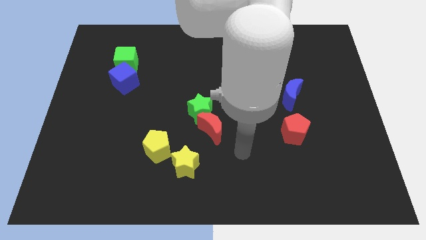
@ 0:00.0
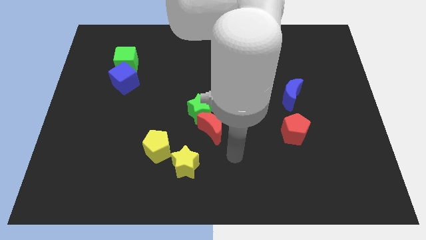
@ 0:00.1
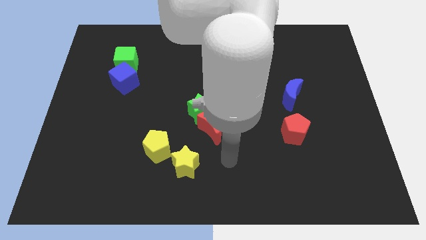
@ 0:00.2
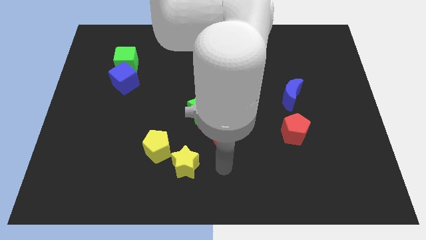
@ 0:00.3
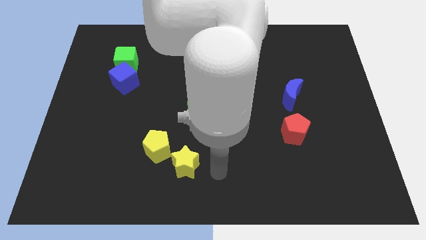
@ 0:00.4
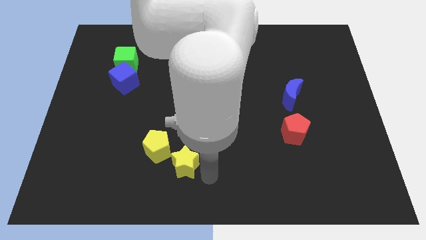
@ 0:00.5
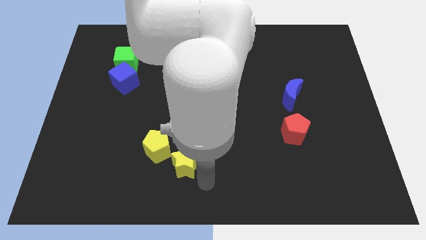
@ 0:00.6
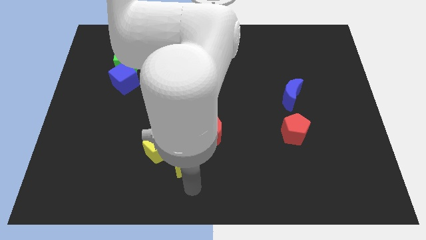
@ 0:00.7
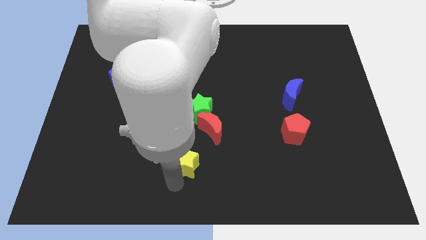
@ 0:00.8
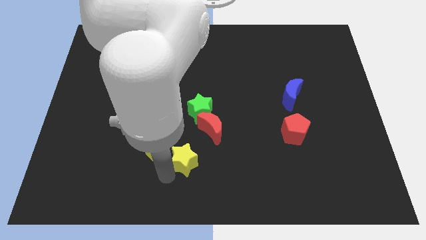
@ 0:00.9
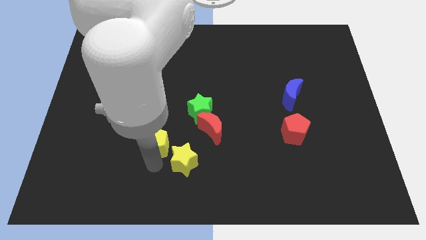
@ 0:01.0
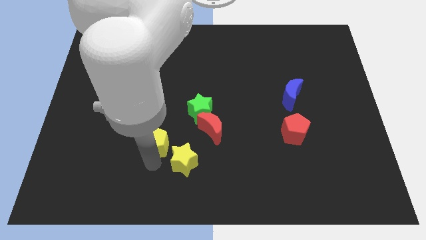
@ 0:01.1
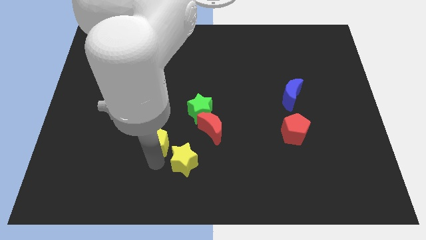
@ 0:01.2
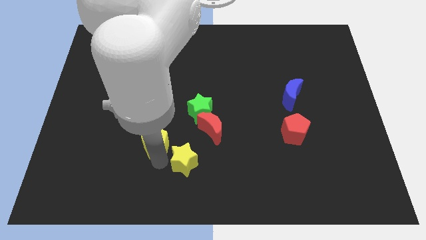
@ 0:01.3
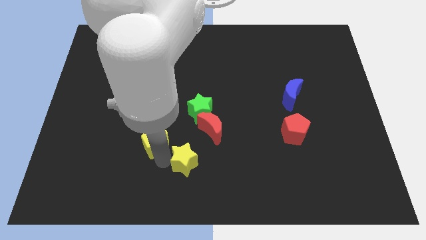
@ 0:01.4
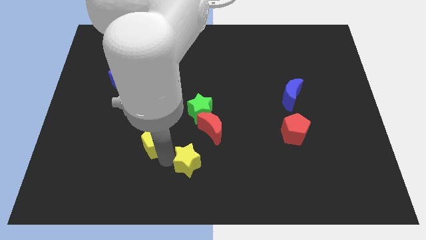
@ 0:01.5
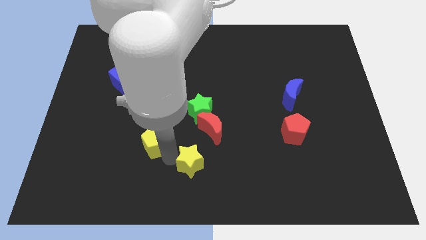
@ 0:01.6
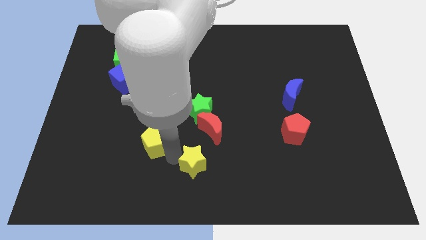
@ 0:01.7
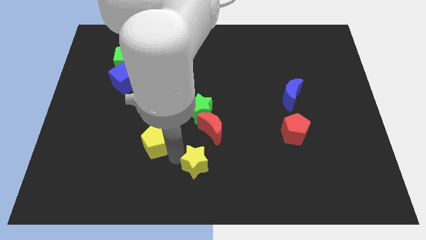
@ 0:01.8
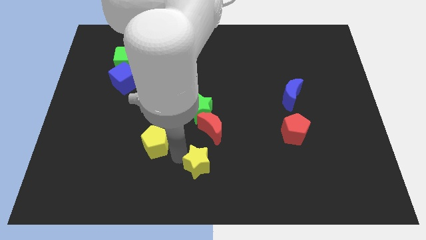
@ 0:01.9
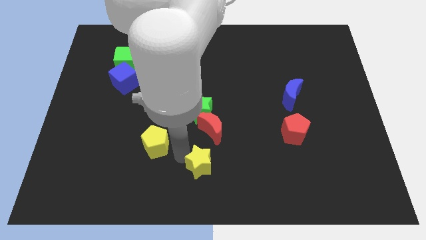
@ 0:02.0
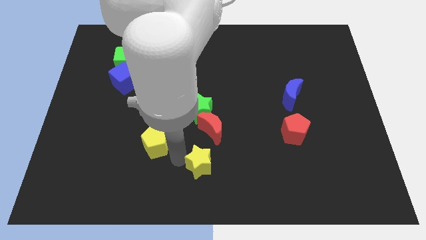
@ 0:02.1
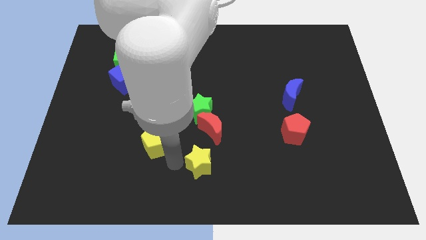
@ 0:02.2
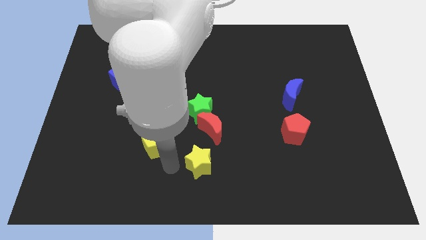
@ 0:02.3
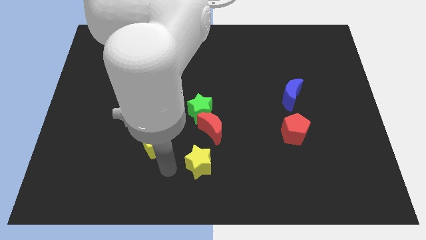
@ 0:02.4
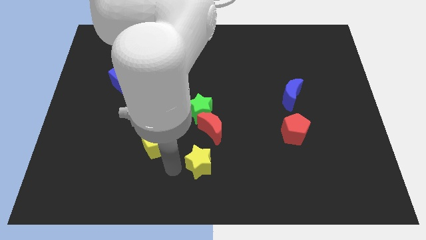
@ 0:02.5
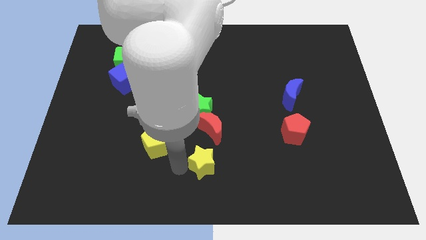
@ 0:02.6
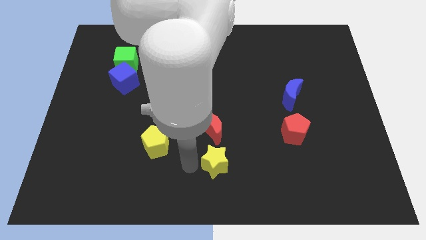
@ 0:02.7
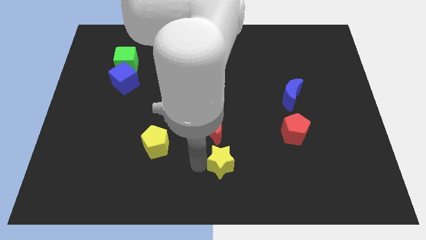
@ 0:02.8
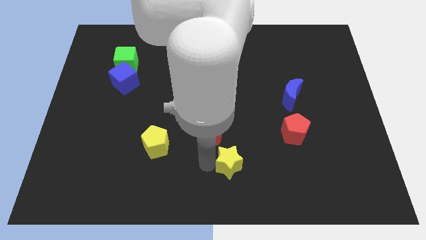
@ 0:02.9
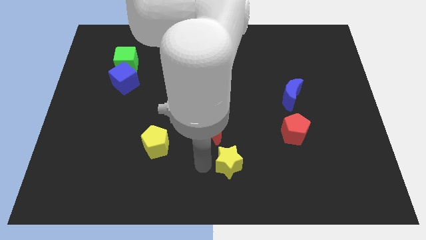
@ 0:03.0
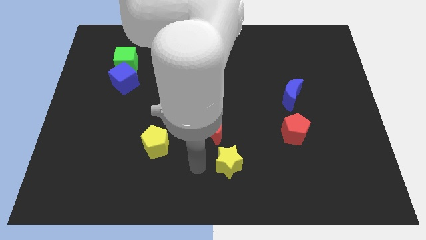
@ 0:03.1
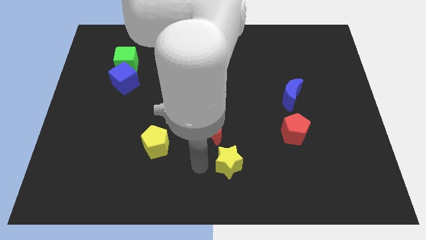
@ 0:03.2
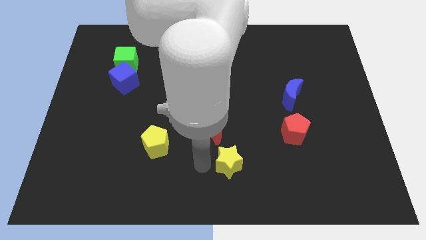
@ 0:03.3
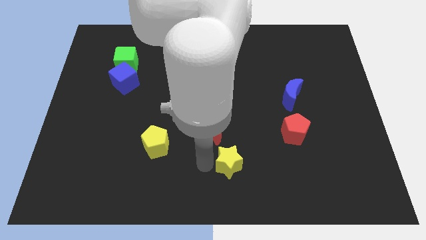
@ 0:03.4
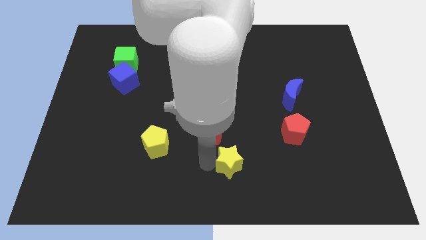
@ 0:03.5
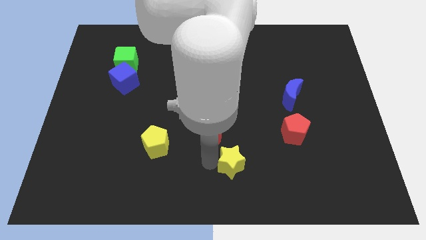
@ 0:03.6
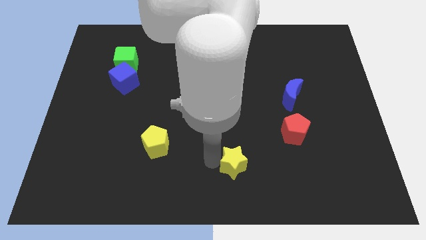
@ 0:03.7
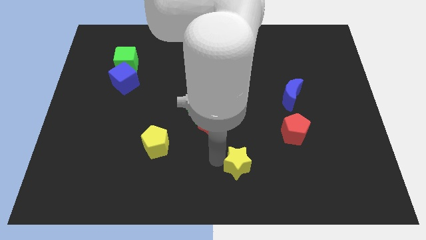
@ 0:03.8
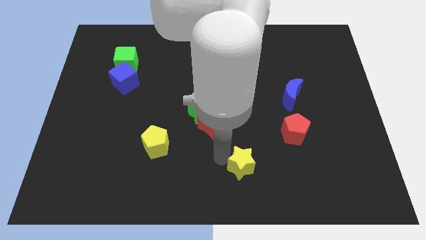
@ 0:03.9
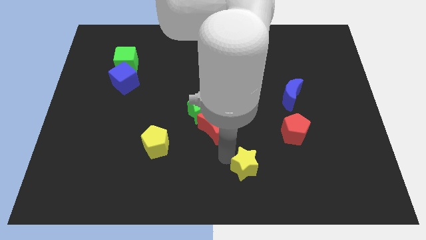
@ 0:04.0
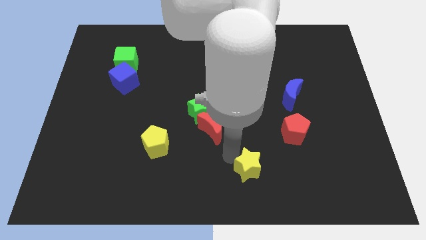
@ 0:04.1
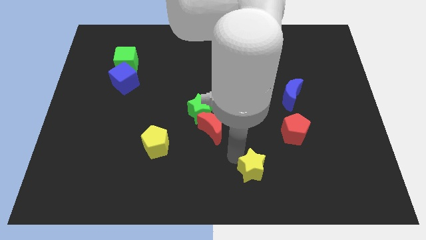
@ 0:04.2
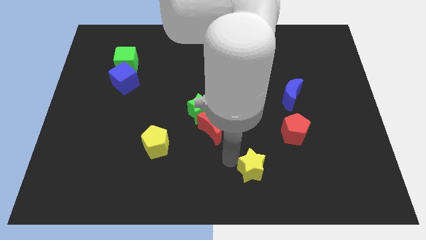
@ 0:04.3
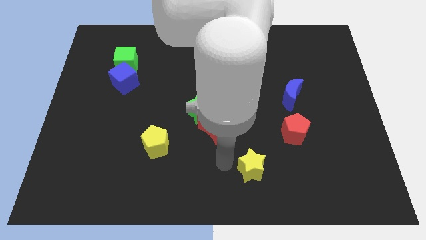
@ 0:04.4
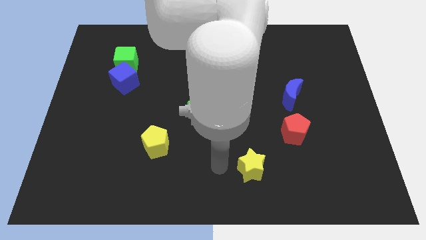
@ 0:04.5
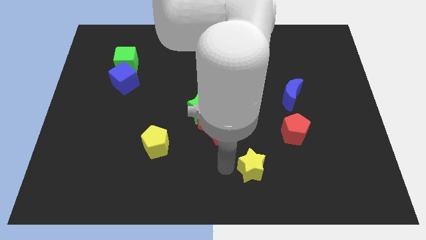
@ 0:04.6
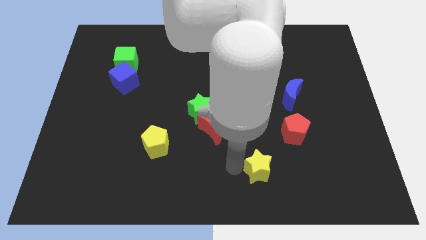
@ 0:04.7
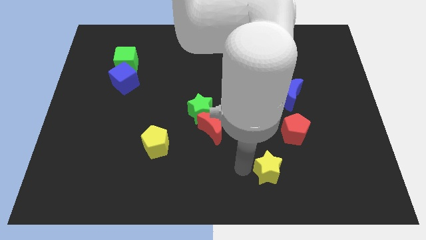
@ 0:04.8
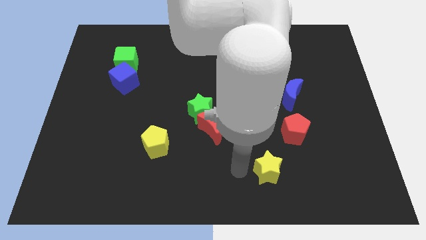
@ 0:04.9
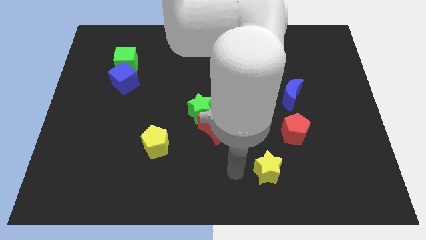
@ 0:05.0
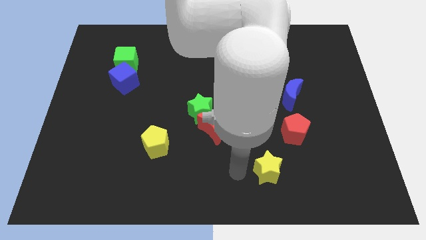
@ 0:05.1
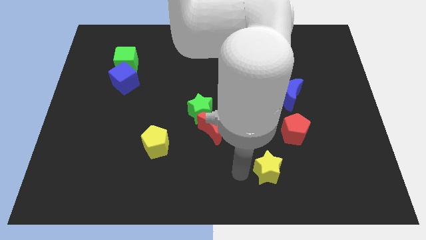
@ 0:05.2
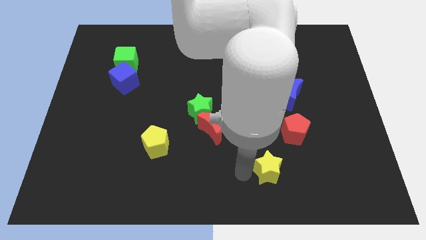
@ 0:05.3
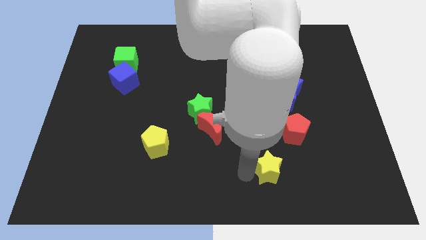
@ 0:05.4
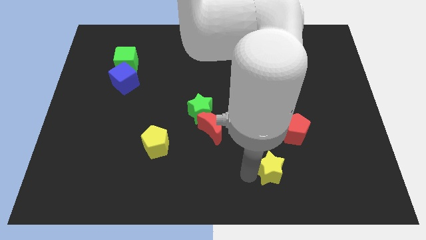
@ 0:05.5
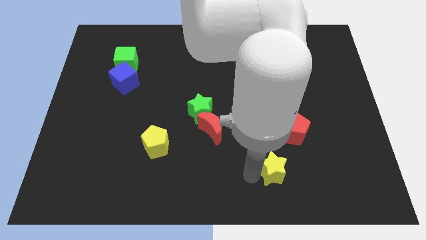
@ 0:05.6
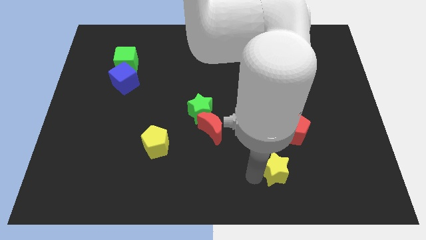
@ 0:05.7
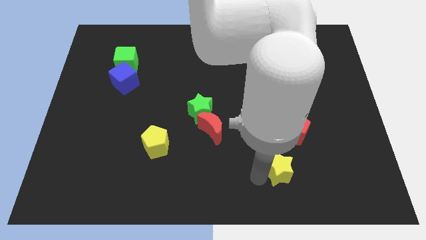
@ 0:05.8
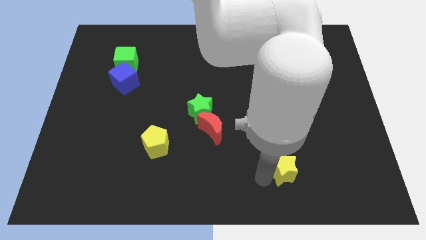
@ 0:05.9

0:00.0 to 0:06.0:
move the yellow star to the right

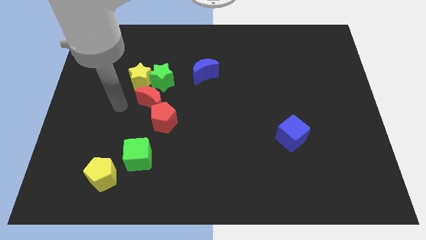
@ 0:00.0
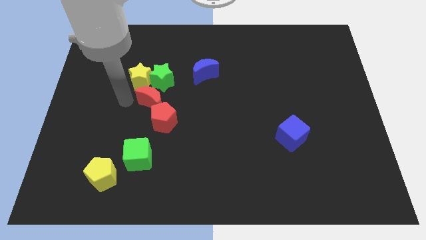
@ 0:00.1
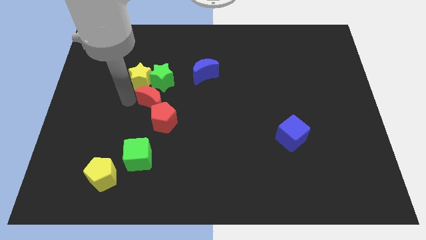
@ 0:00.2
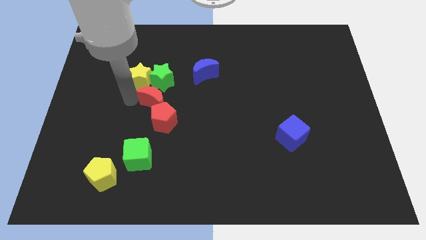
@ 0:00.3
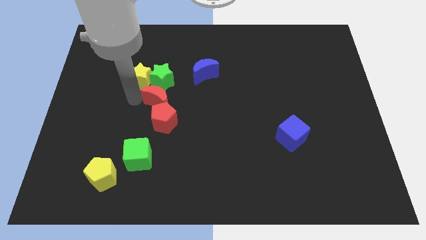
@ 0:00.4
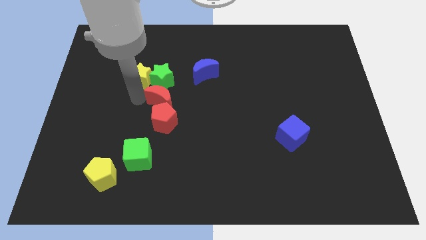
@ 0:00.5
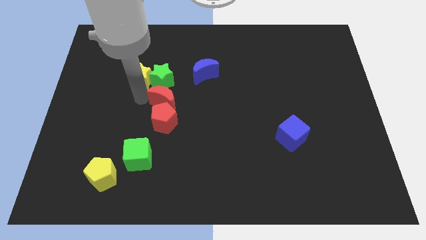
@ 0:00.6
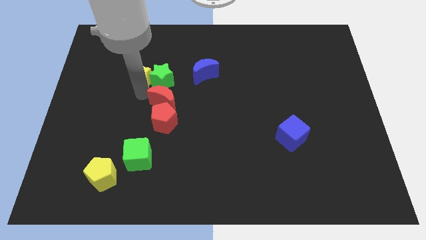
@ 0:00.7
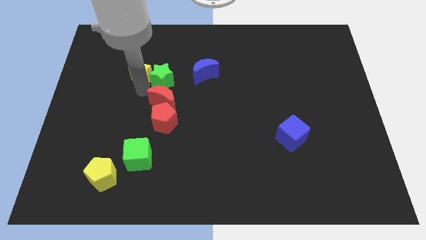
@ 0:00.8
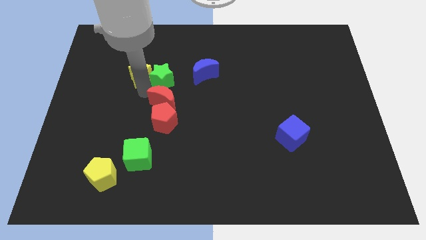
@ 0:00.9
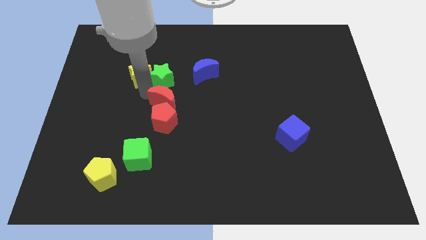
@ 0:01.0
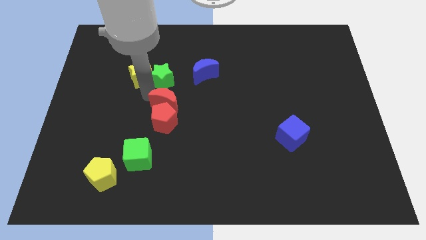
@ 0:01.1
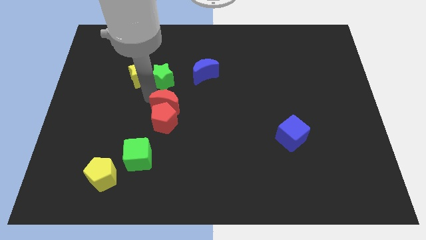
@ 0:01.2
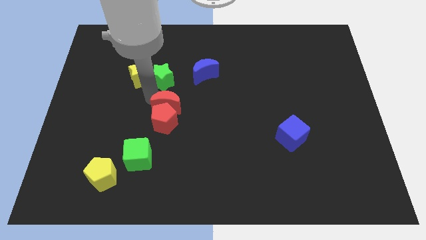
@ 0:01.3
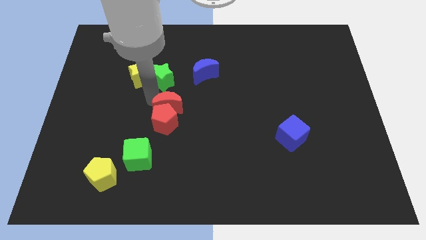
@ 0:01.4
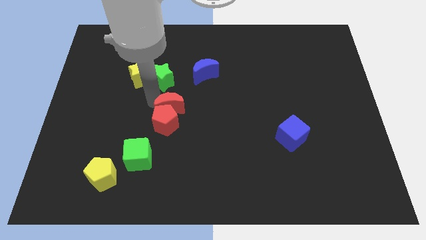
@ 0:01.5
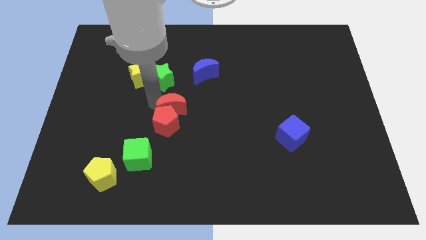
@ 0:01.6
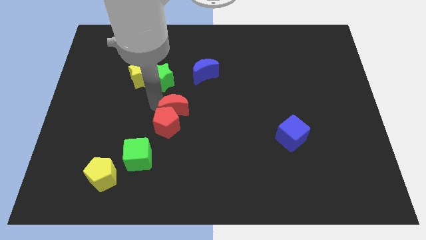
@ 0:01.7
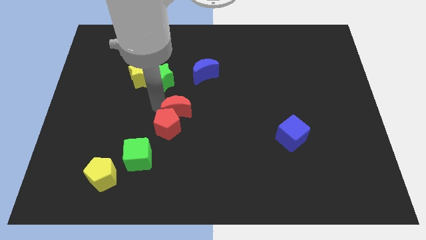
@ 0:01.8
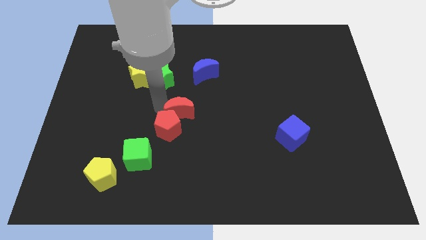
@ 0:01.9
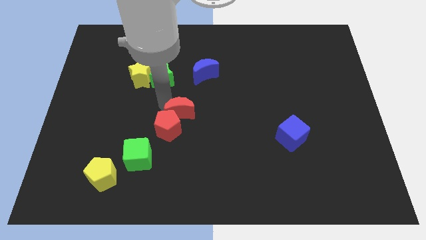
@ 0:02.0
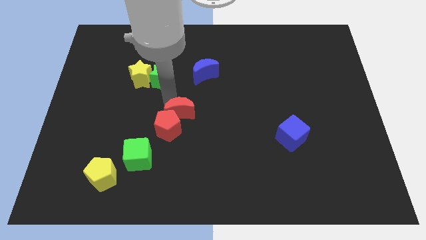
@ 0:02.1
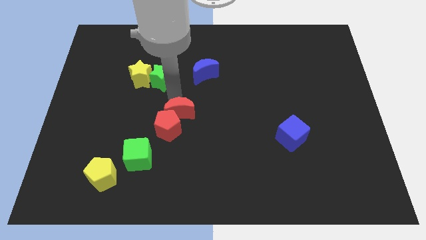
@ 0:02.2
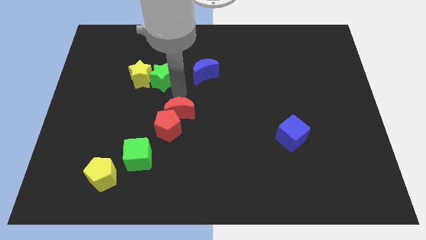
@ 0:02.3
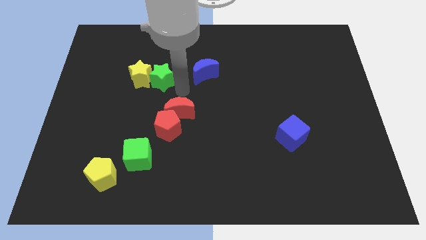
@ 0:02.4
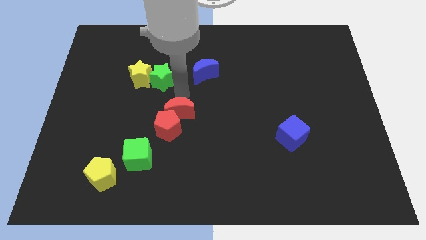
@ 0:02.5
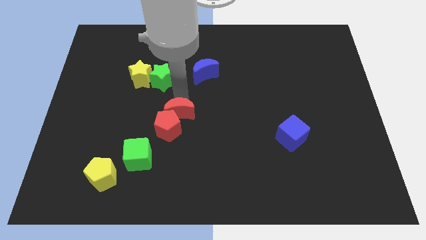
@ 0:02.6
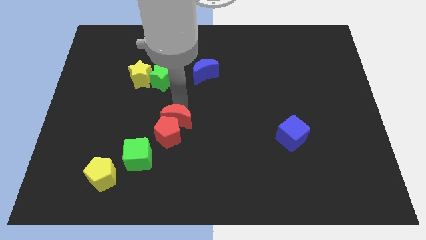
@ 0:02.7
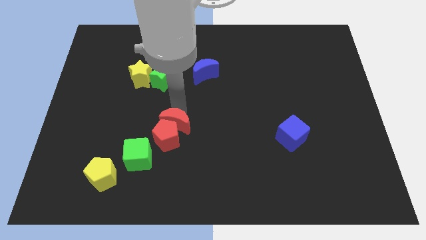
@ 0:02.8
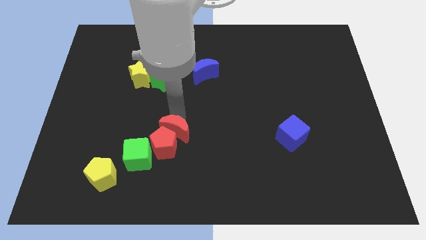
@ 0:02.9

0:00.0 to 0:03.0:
move the red moon downwards a little bit
